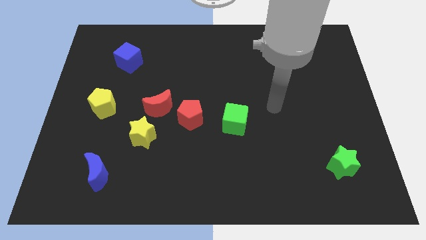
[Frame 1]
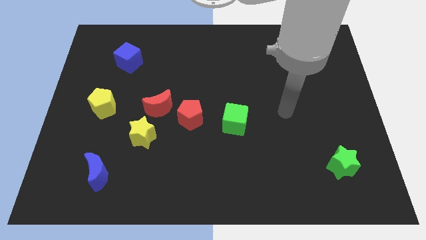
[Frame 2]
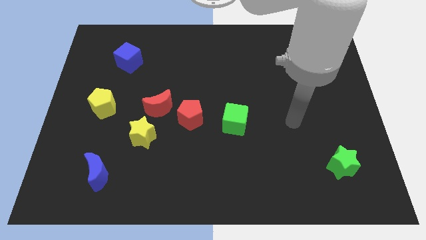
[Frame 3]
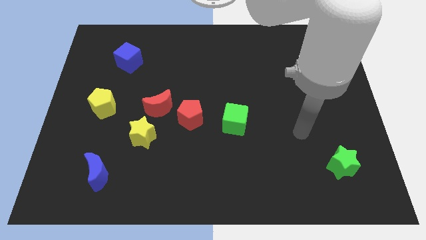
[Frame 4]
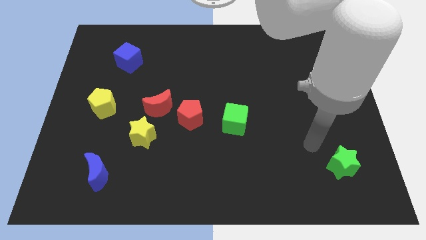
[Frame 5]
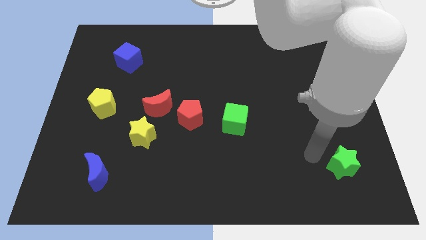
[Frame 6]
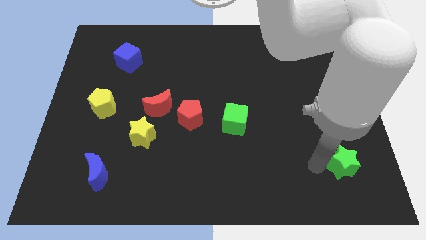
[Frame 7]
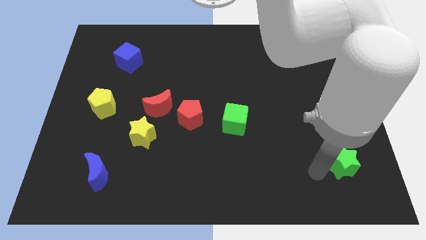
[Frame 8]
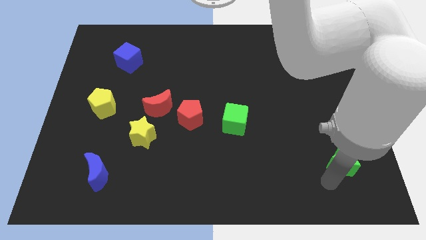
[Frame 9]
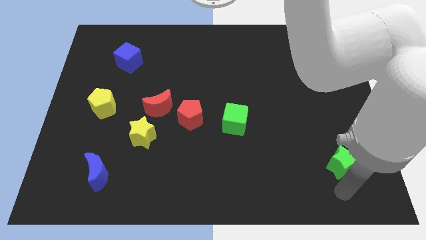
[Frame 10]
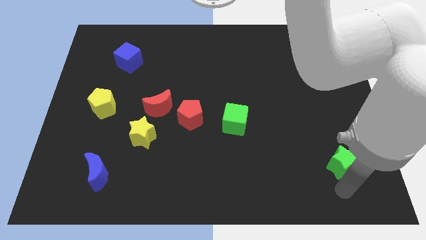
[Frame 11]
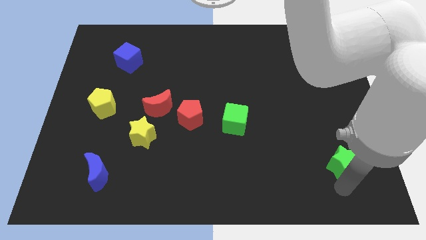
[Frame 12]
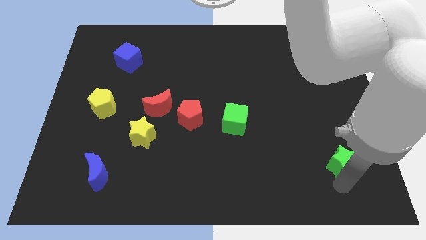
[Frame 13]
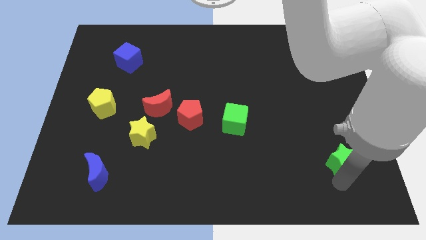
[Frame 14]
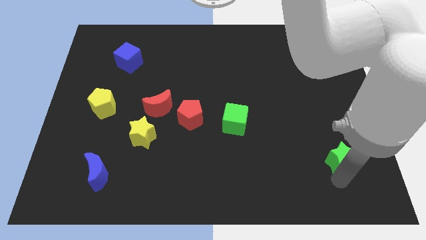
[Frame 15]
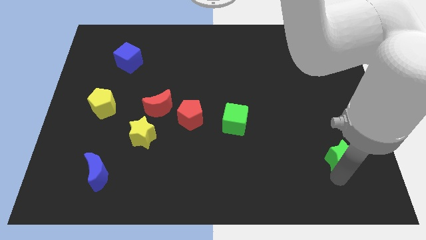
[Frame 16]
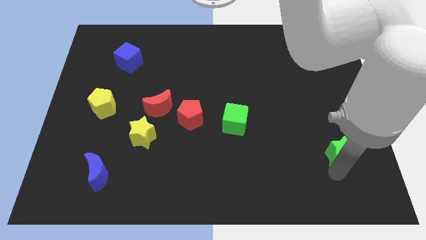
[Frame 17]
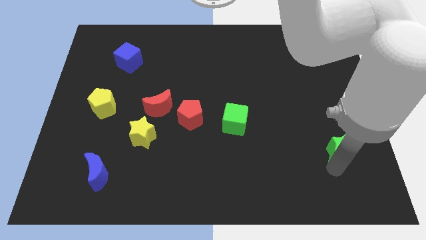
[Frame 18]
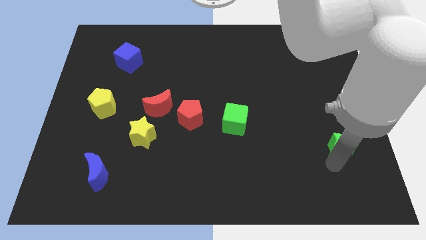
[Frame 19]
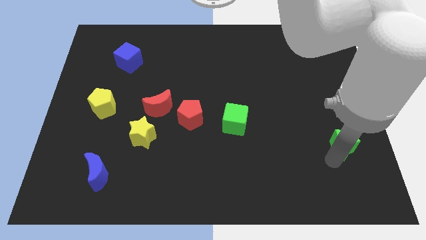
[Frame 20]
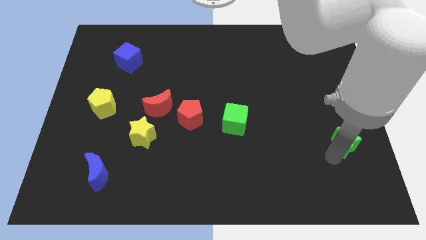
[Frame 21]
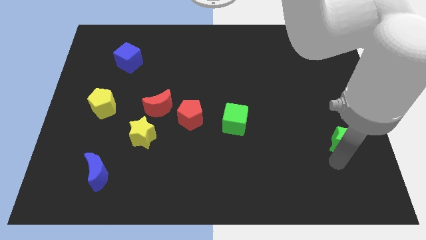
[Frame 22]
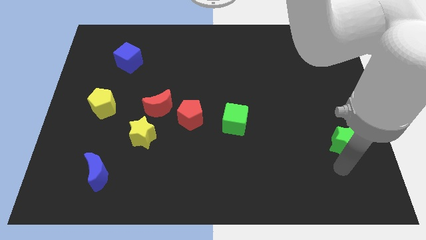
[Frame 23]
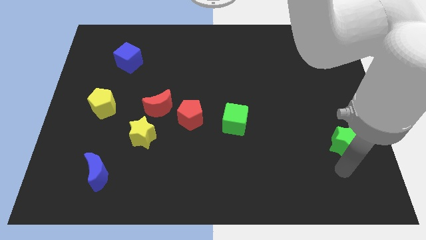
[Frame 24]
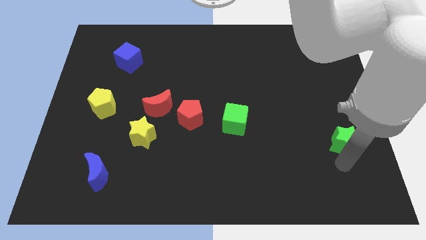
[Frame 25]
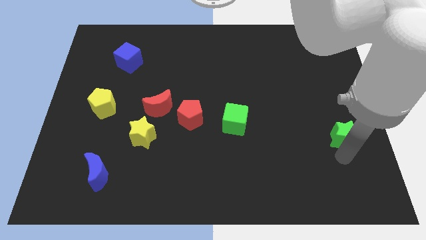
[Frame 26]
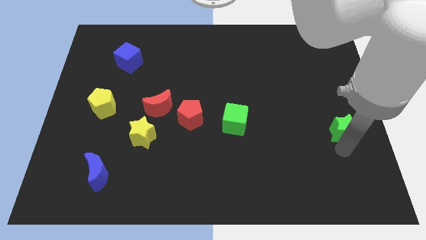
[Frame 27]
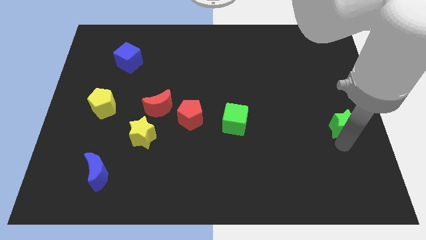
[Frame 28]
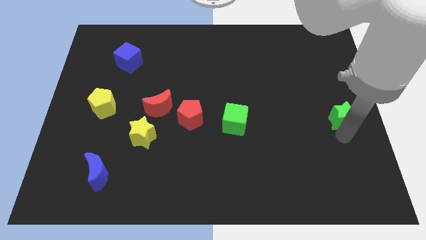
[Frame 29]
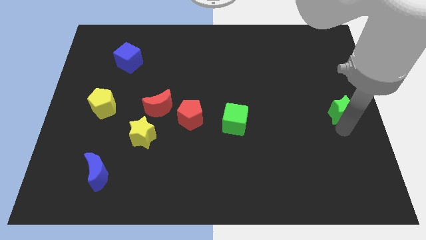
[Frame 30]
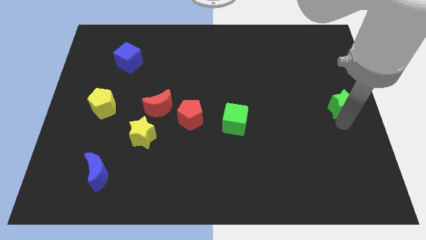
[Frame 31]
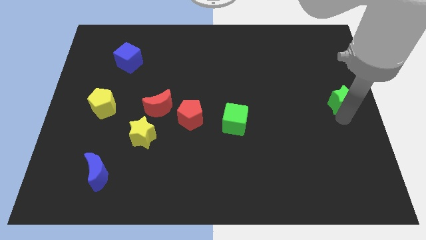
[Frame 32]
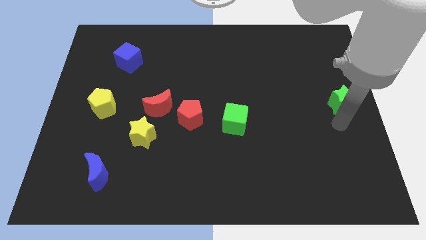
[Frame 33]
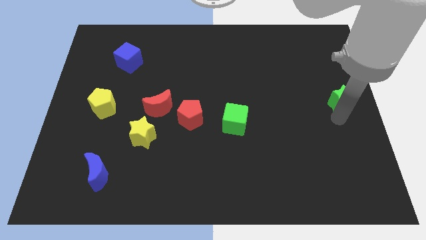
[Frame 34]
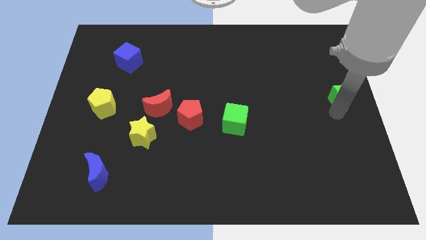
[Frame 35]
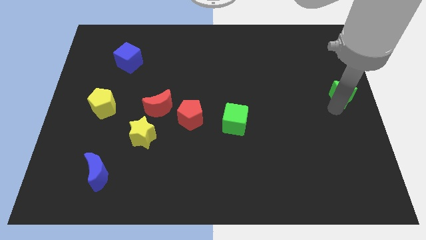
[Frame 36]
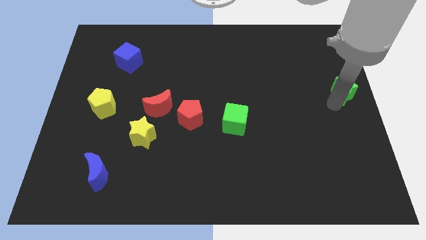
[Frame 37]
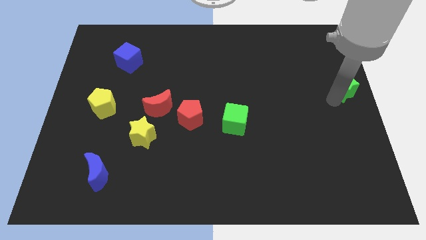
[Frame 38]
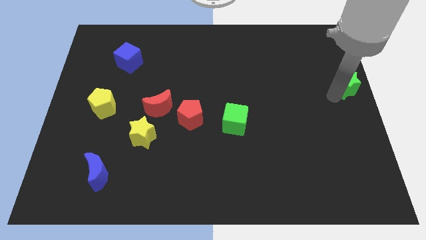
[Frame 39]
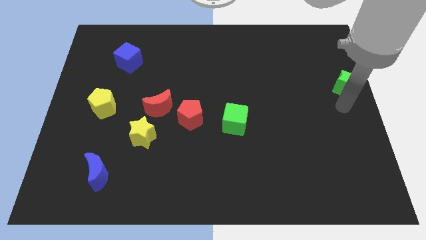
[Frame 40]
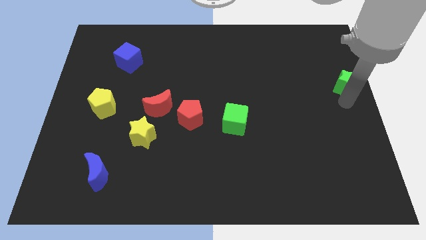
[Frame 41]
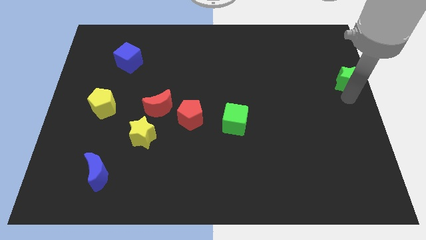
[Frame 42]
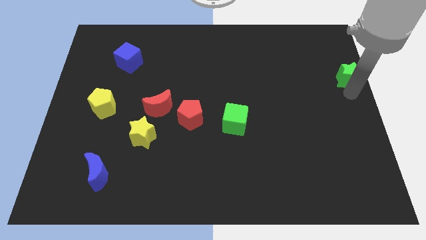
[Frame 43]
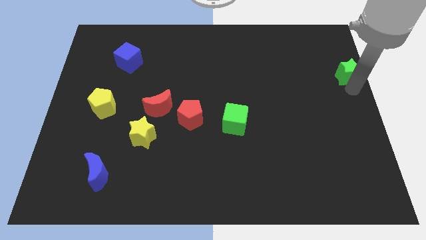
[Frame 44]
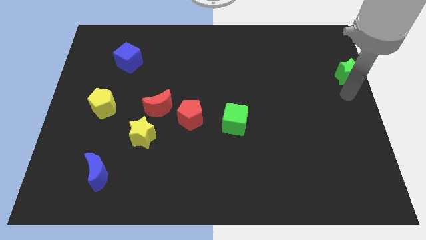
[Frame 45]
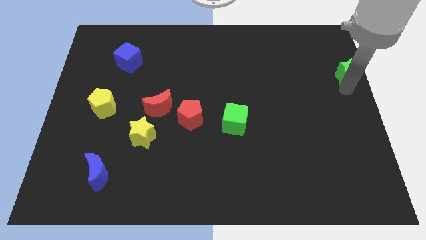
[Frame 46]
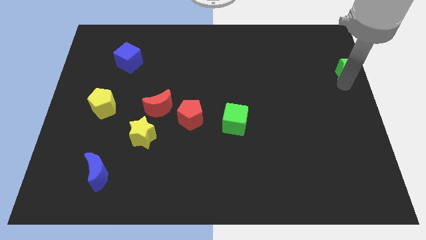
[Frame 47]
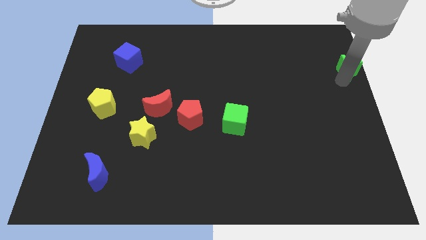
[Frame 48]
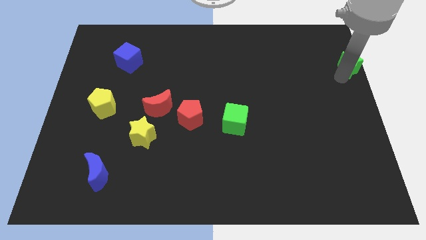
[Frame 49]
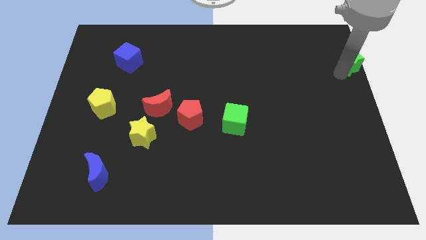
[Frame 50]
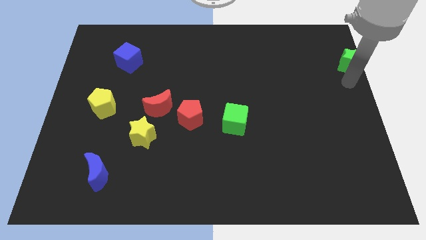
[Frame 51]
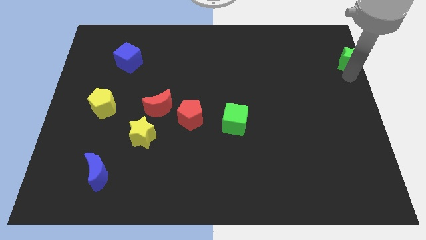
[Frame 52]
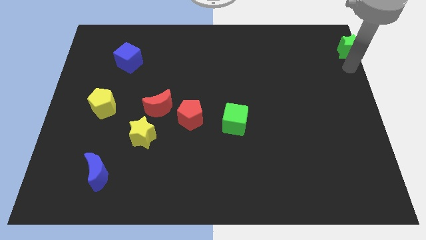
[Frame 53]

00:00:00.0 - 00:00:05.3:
move the green star to the top right corner

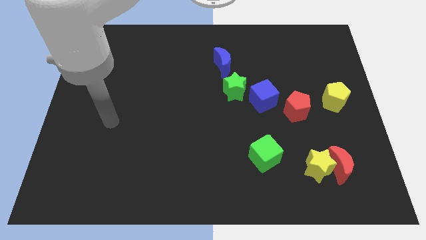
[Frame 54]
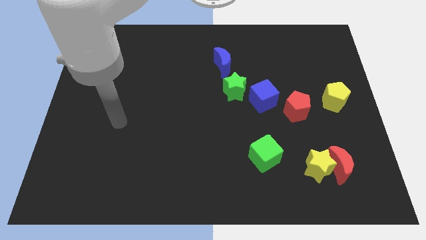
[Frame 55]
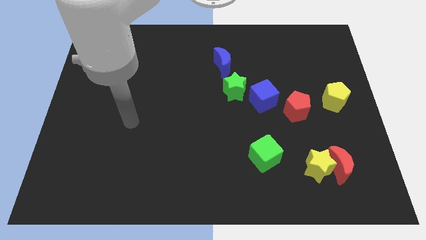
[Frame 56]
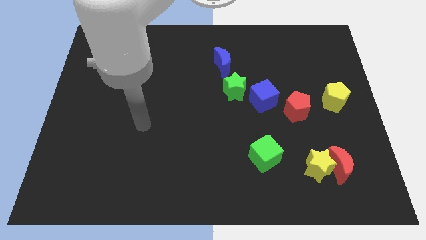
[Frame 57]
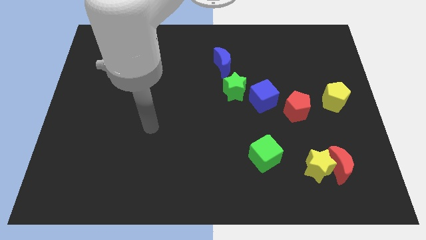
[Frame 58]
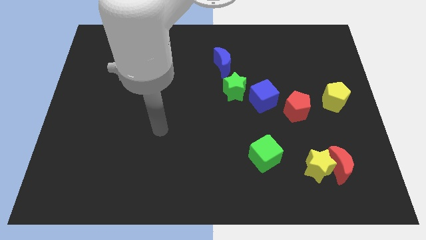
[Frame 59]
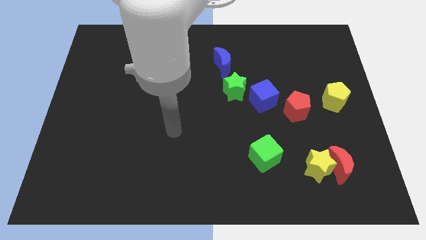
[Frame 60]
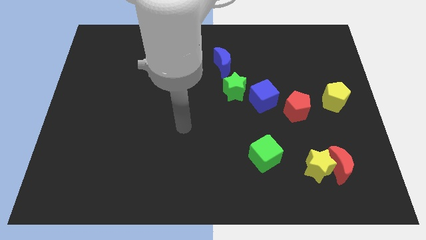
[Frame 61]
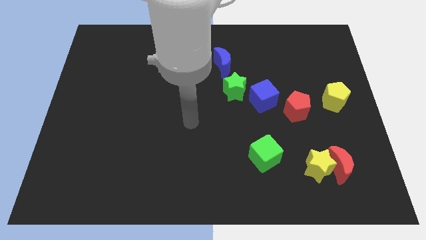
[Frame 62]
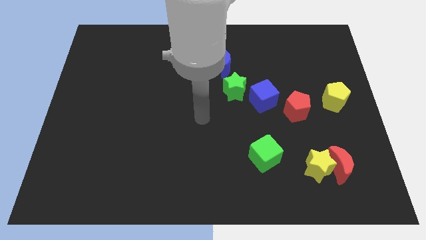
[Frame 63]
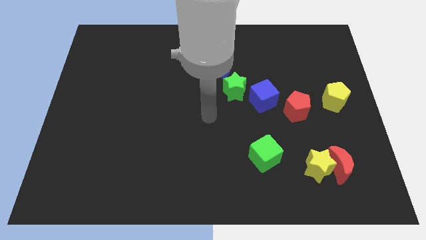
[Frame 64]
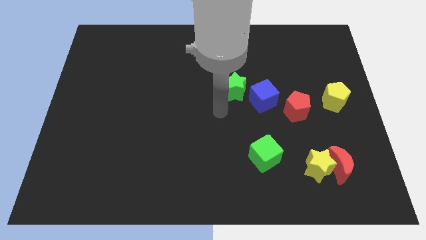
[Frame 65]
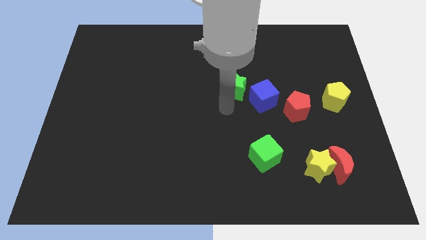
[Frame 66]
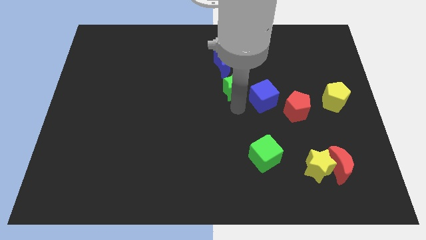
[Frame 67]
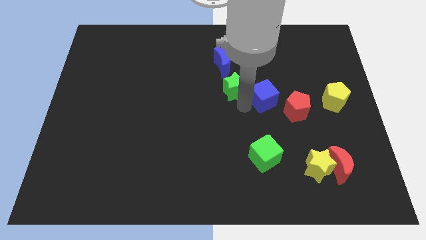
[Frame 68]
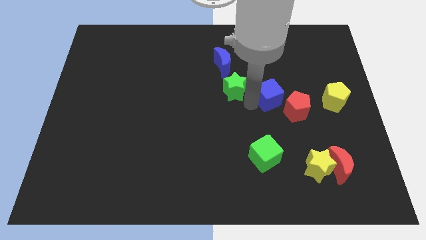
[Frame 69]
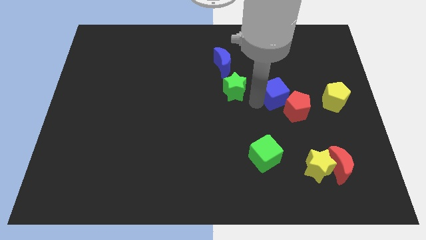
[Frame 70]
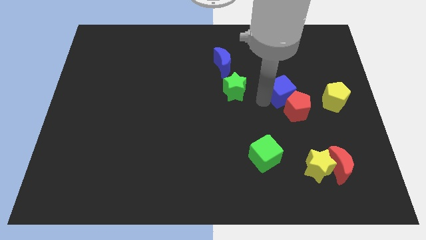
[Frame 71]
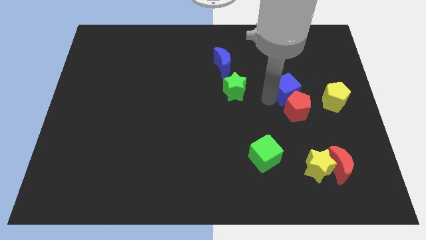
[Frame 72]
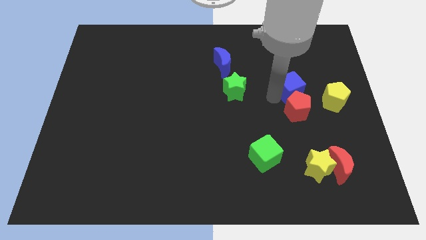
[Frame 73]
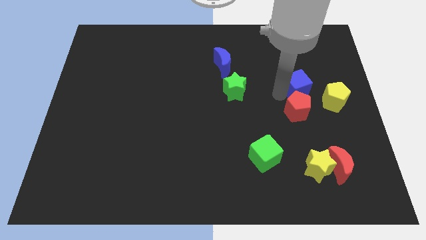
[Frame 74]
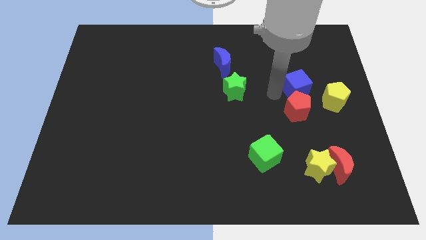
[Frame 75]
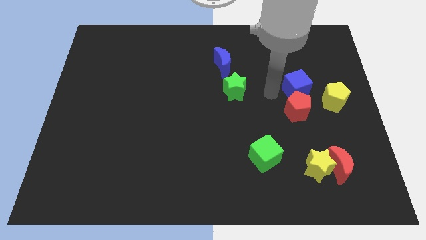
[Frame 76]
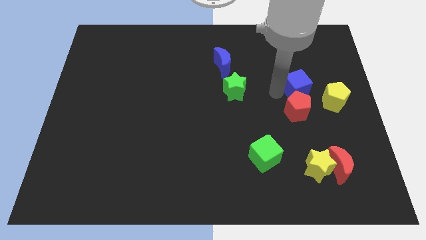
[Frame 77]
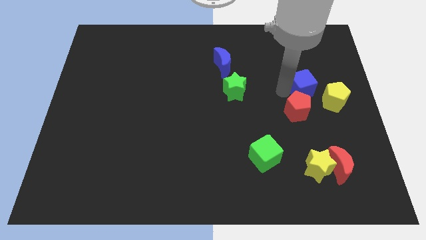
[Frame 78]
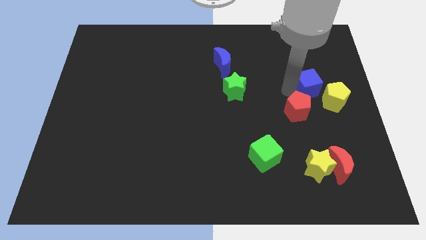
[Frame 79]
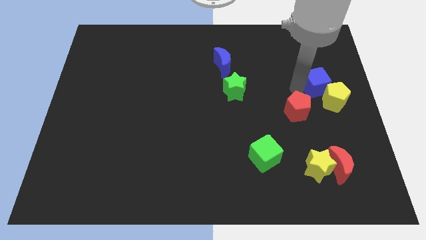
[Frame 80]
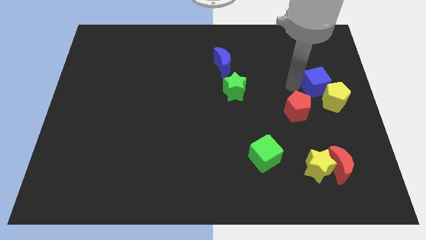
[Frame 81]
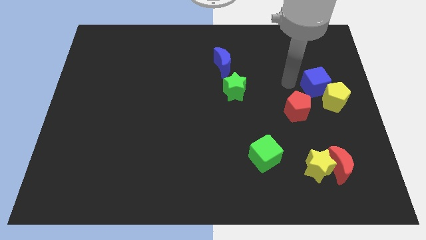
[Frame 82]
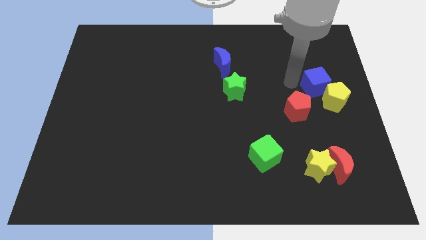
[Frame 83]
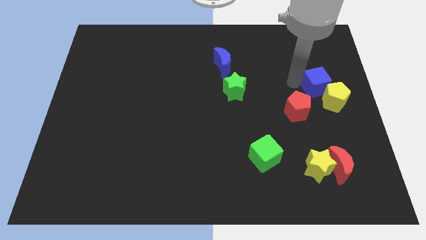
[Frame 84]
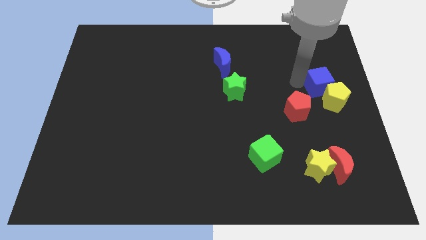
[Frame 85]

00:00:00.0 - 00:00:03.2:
slide the blue cube to the right side of the board
